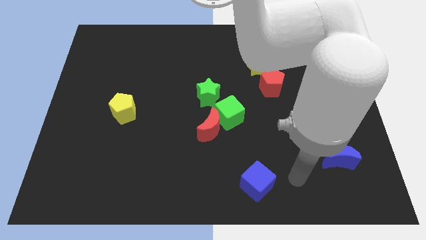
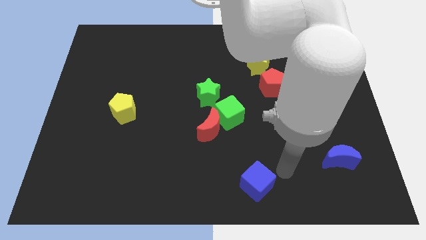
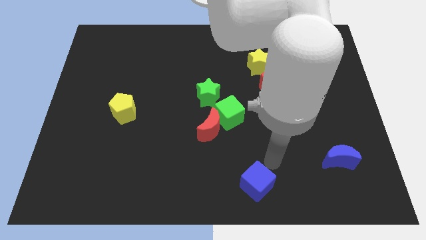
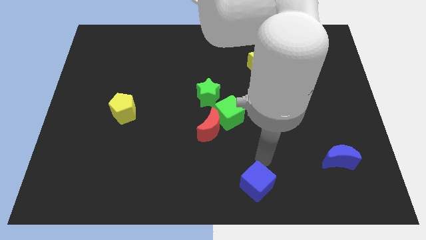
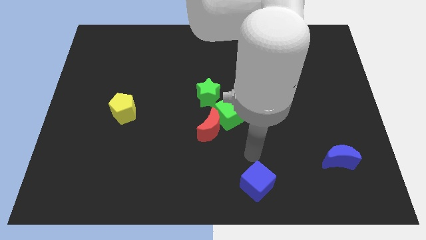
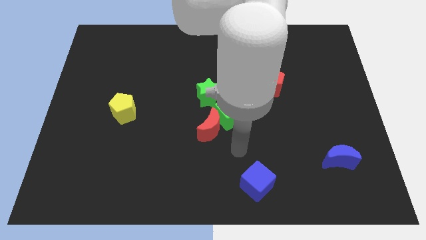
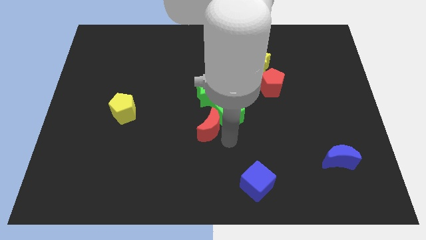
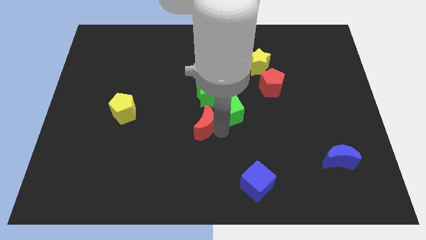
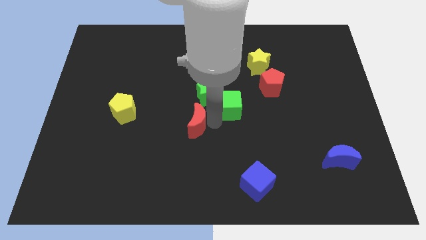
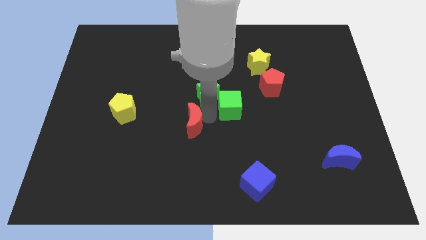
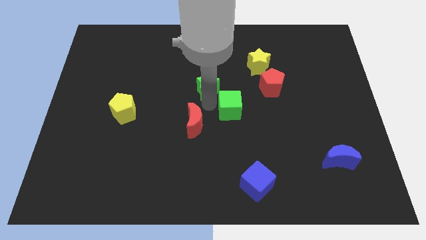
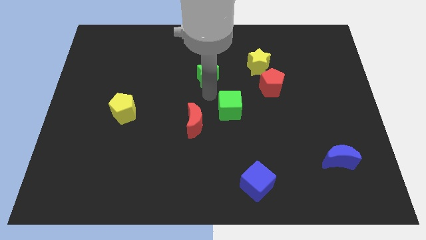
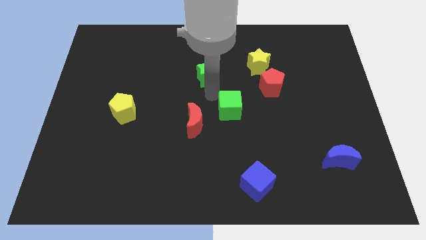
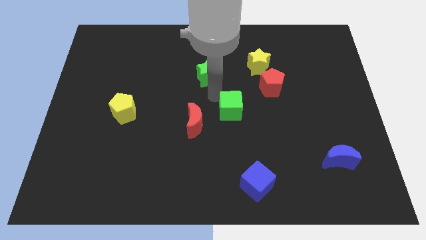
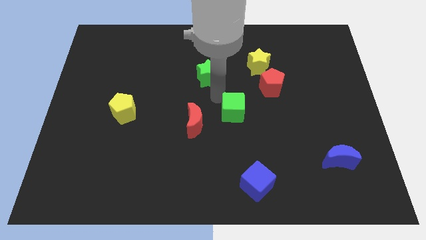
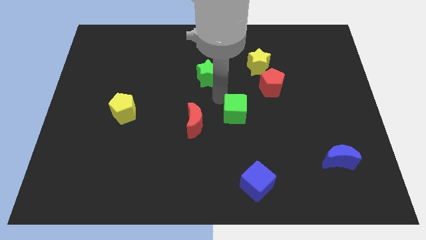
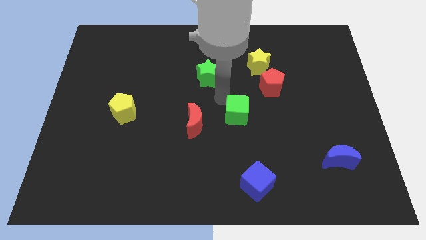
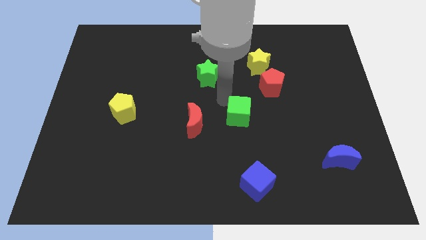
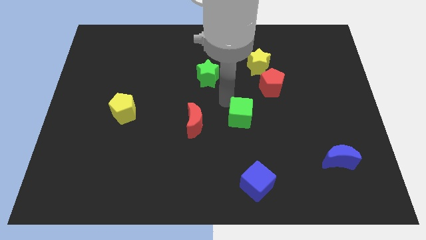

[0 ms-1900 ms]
separate the green cube from the red moon and green star

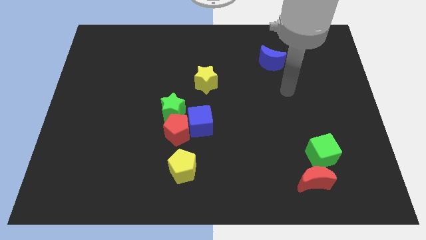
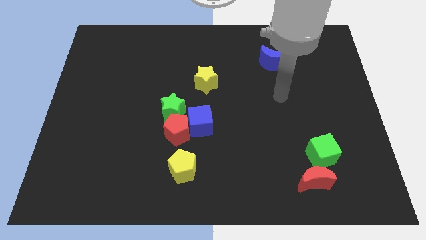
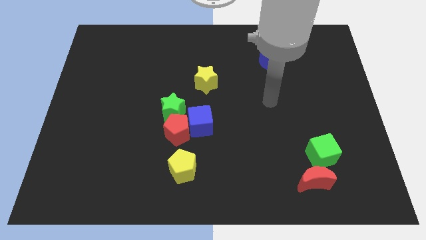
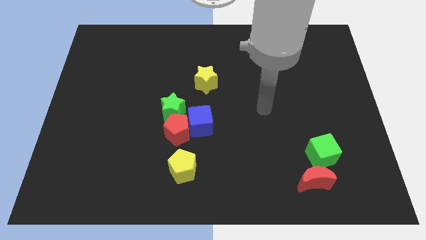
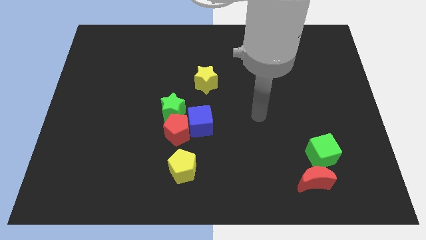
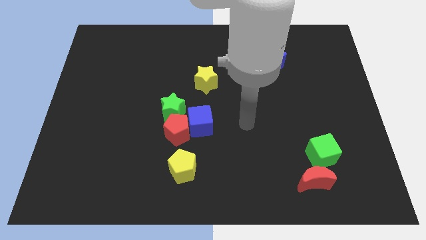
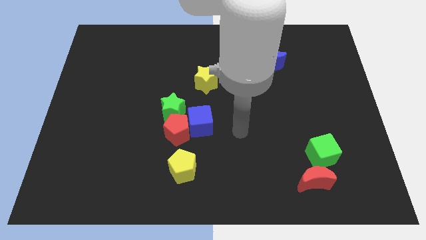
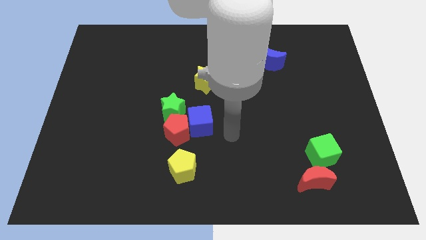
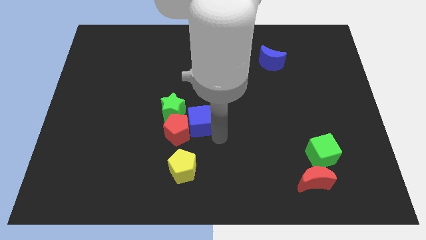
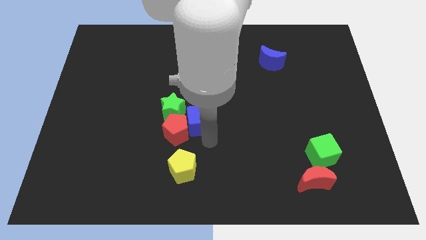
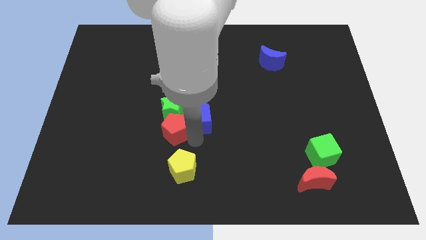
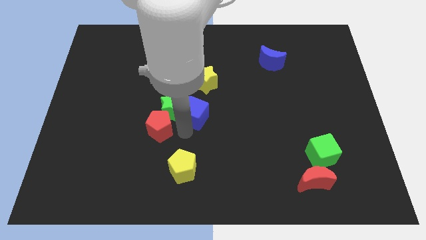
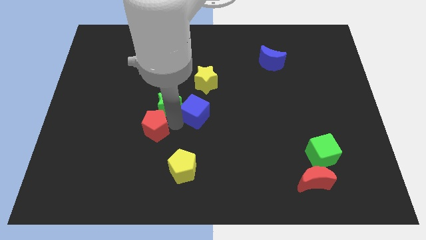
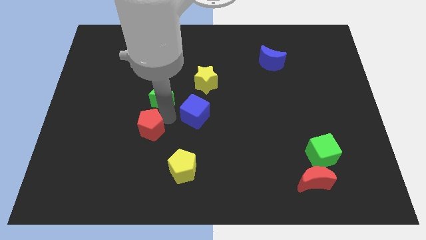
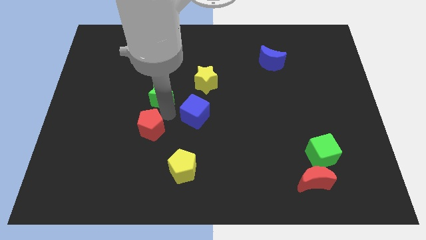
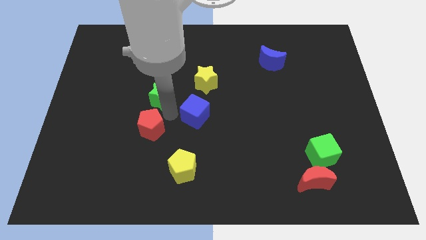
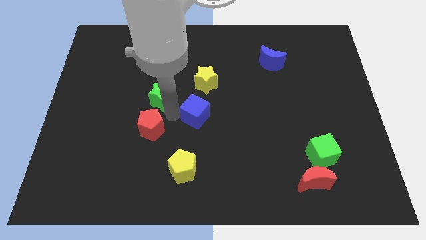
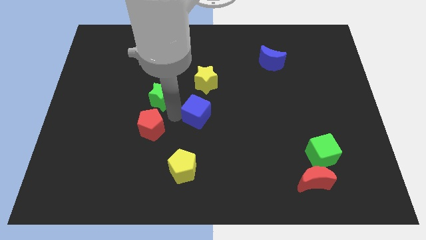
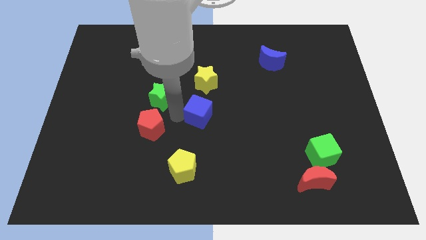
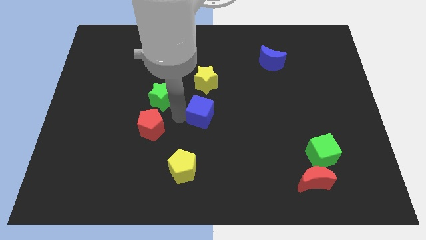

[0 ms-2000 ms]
move the blue cube away from the red pentagon and green star

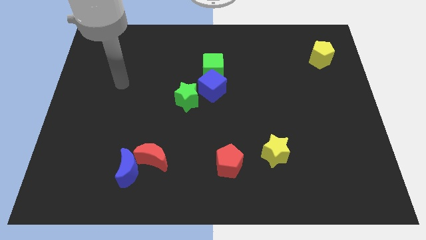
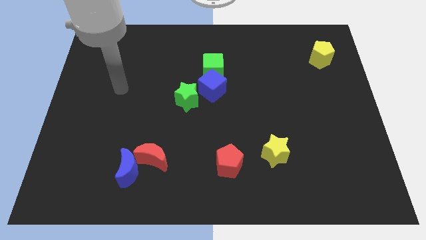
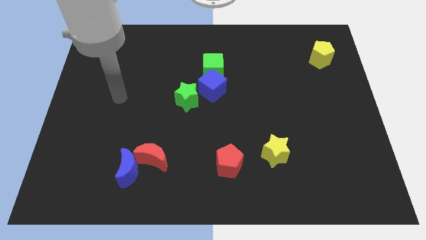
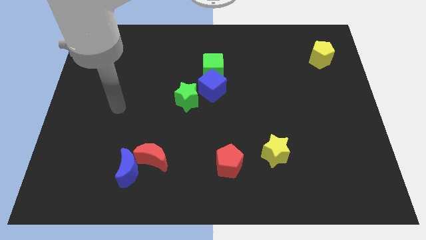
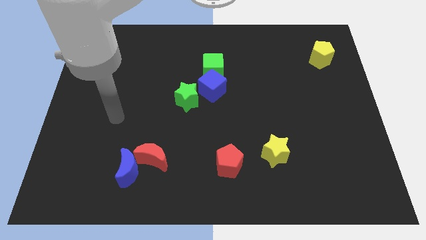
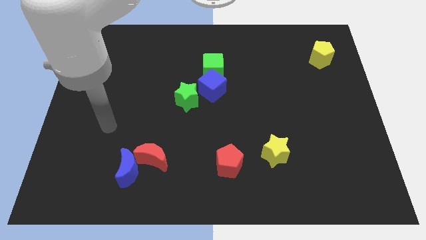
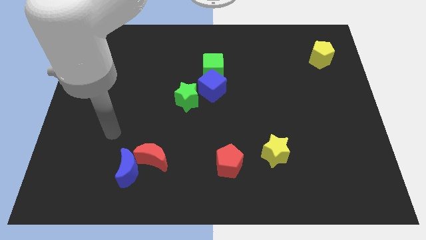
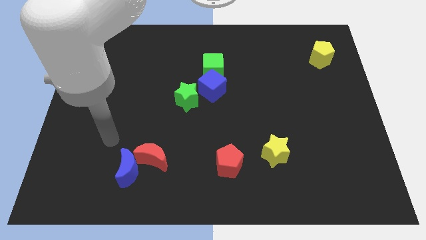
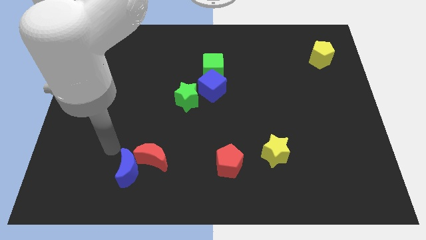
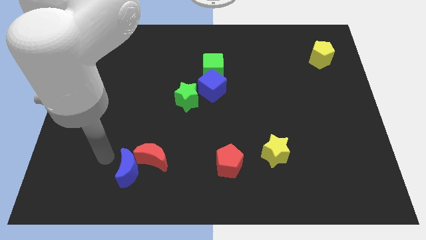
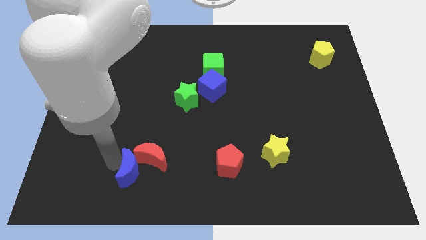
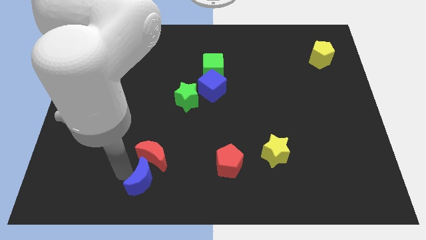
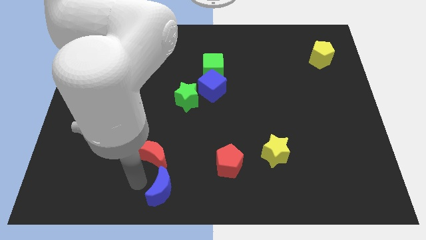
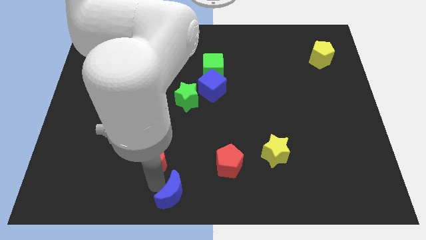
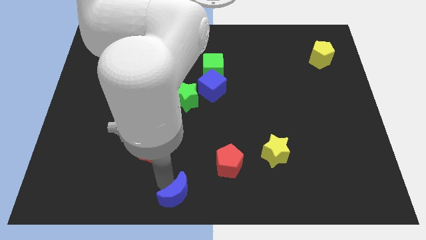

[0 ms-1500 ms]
move the red moon away from the blue moon

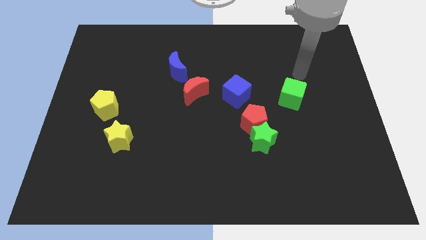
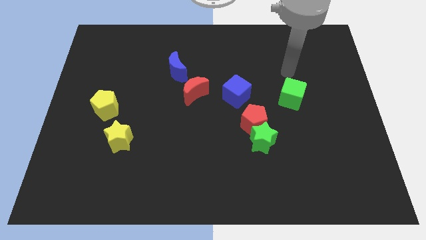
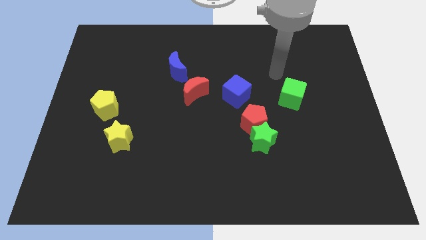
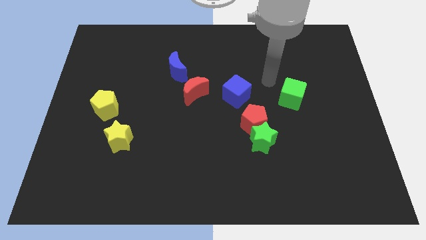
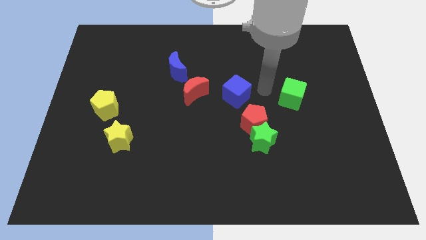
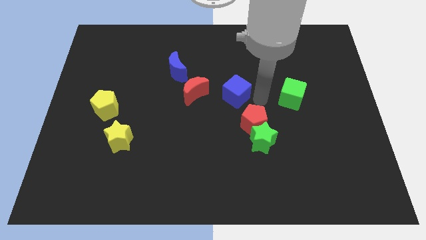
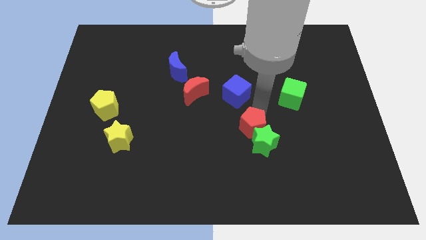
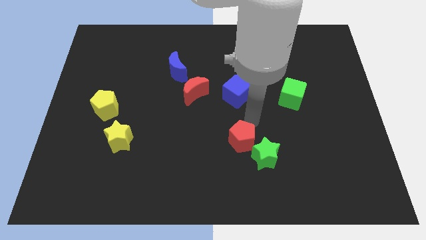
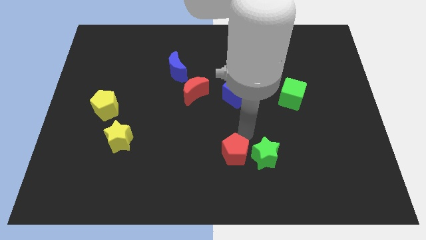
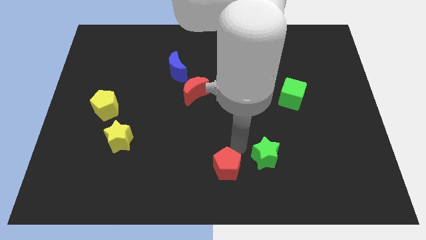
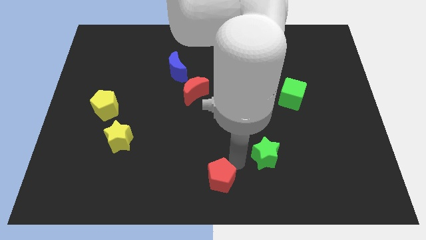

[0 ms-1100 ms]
separate the green star from the red pentagon

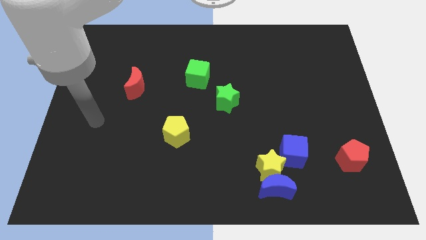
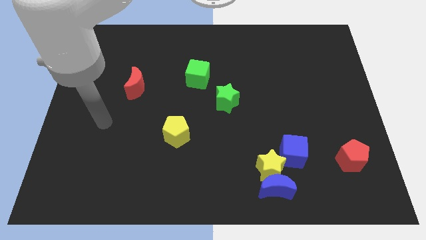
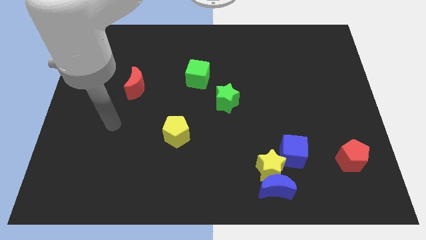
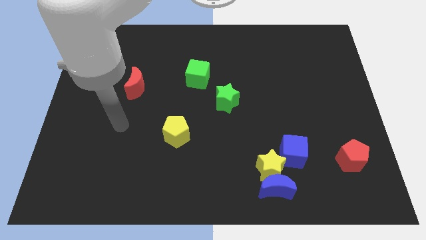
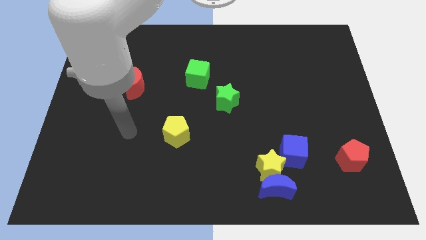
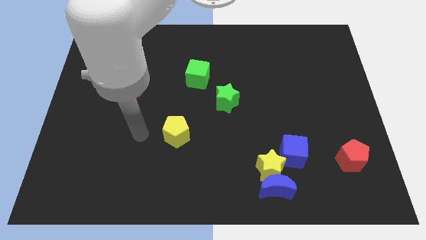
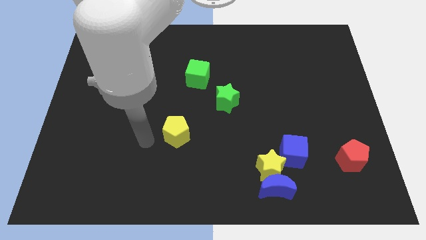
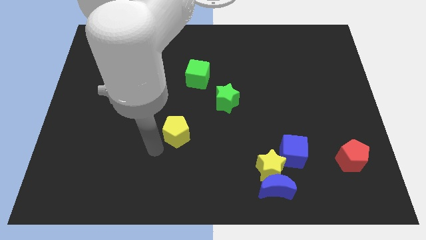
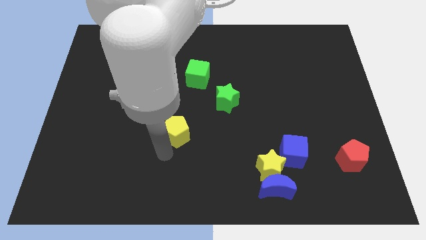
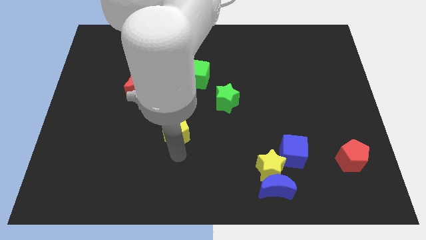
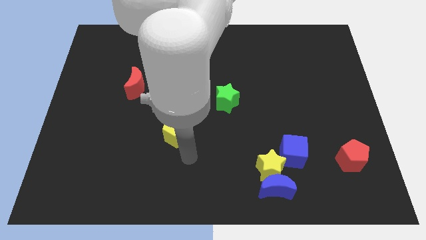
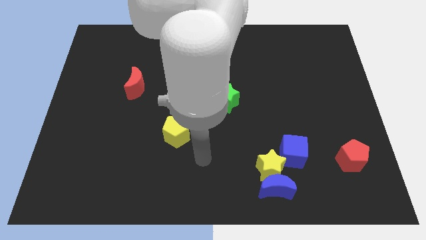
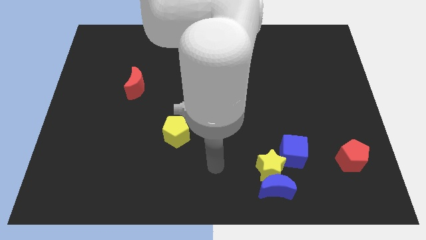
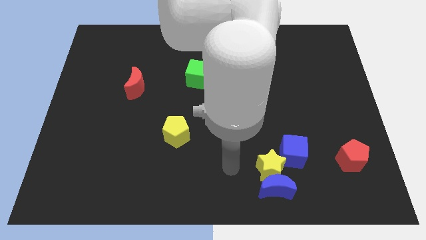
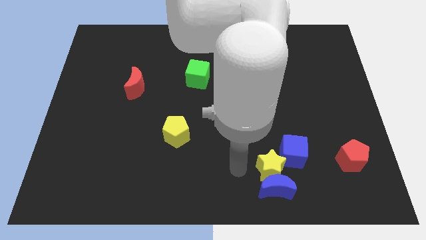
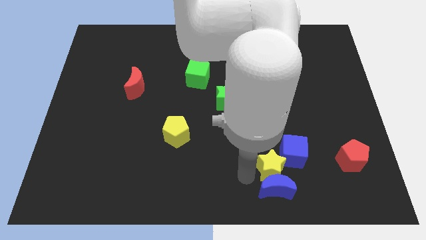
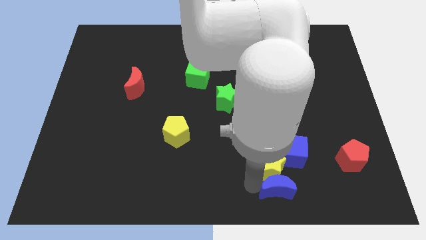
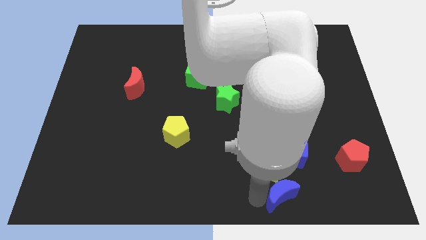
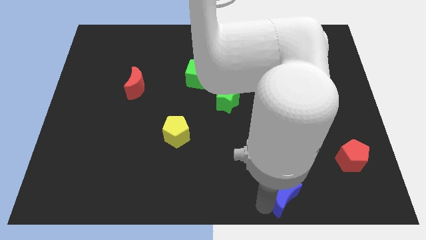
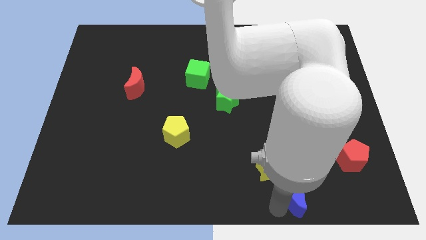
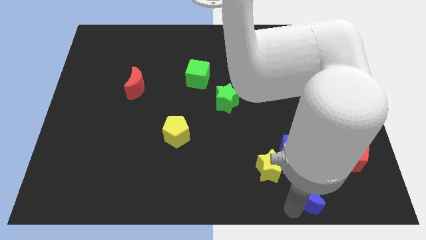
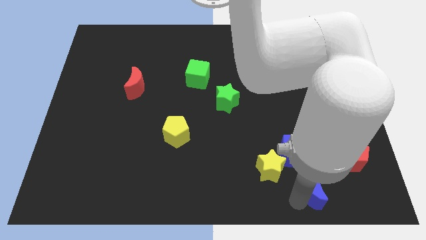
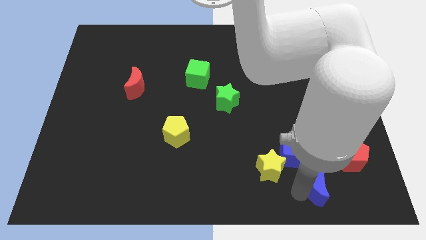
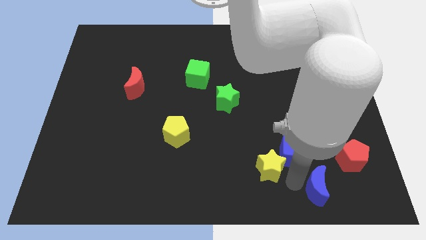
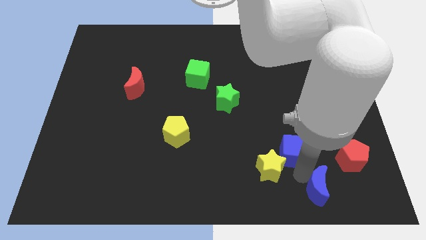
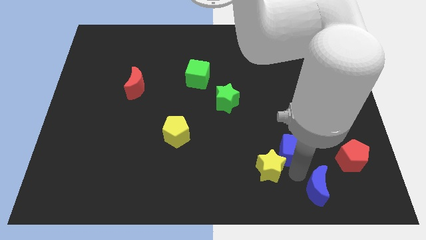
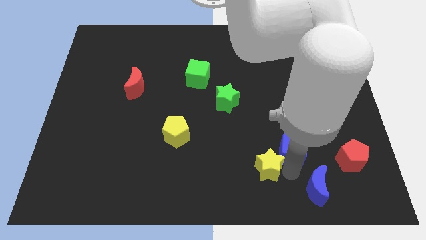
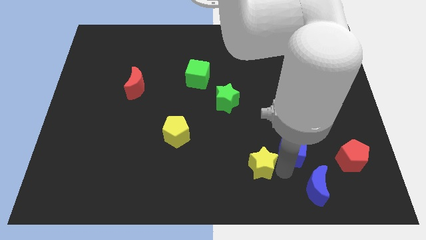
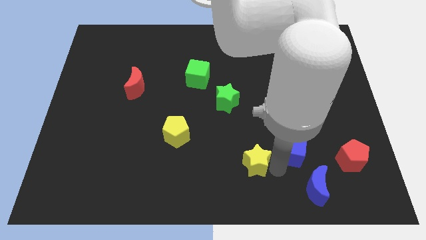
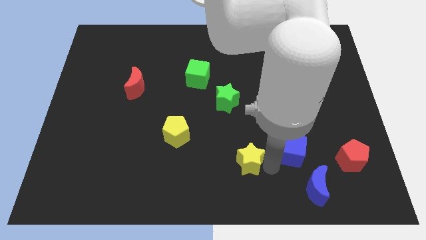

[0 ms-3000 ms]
pull the yellow star apart from the blue moon and blue cube
